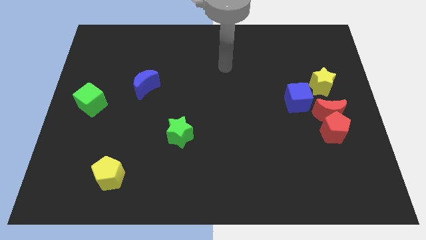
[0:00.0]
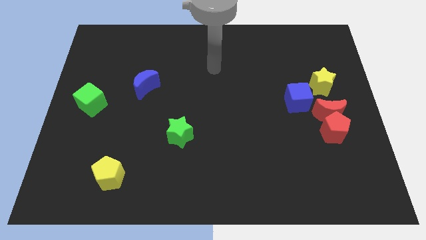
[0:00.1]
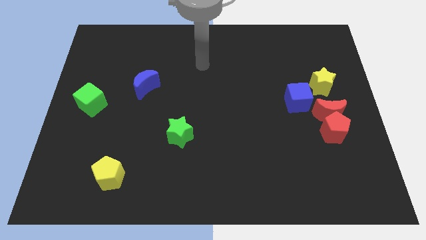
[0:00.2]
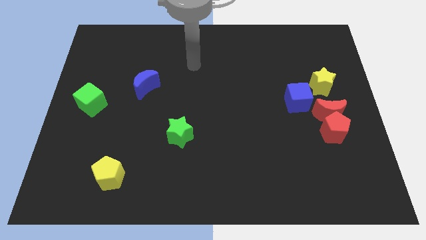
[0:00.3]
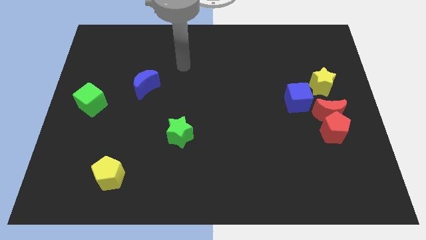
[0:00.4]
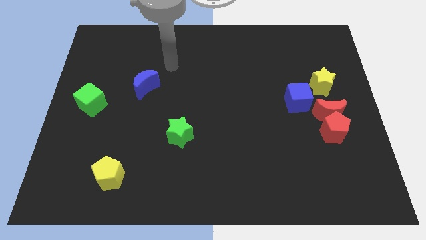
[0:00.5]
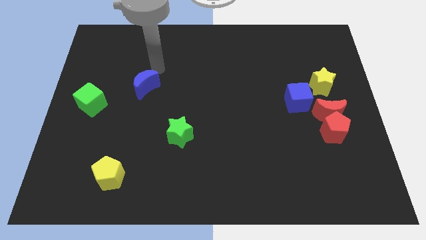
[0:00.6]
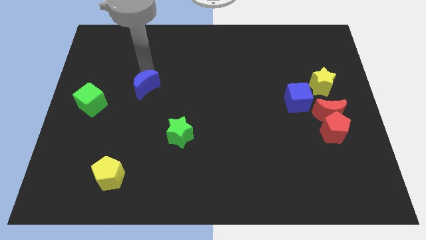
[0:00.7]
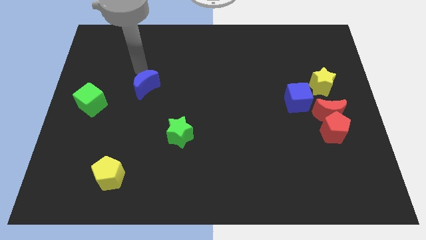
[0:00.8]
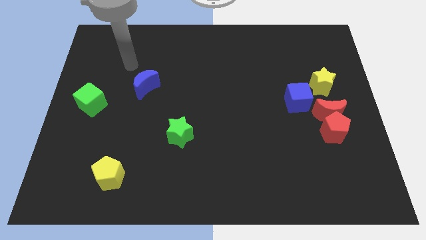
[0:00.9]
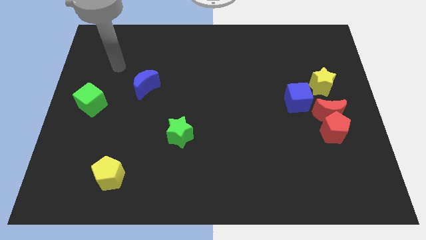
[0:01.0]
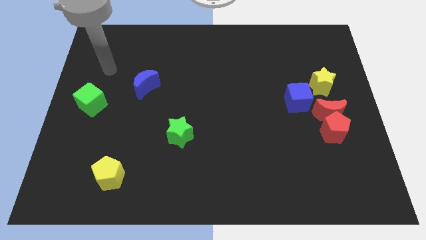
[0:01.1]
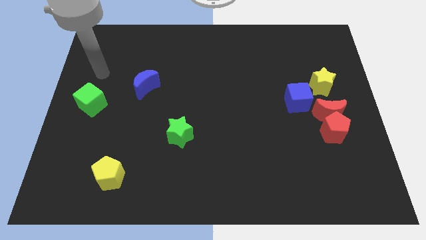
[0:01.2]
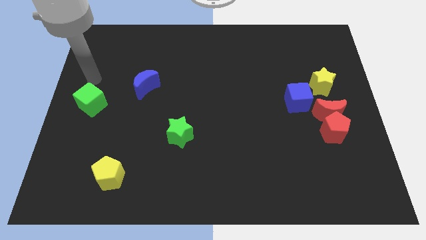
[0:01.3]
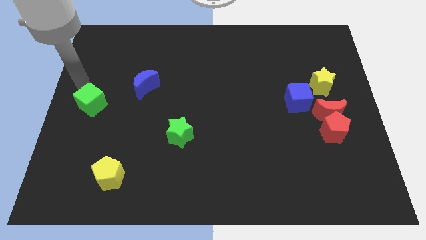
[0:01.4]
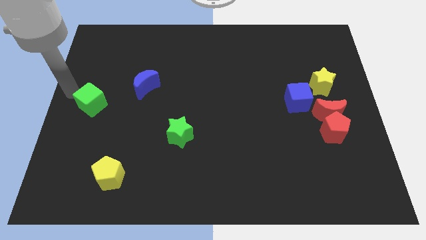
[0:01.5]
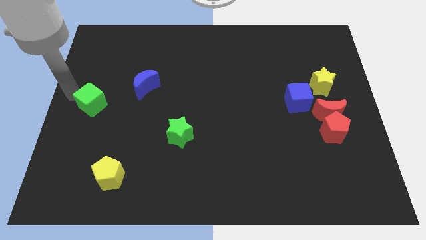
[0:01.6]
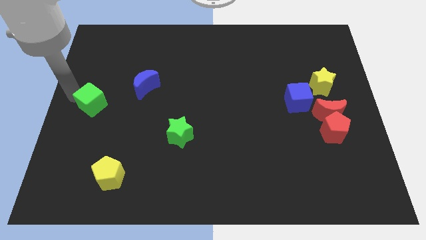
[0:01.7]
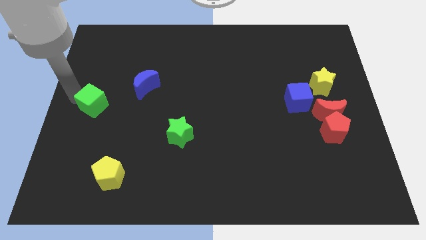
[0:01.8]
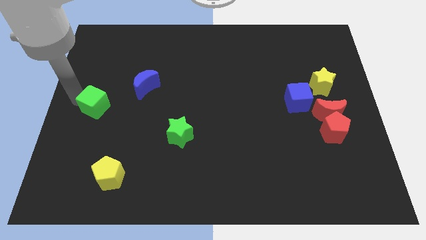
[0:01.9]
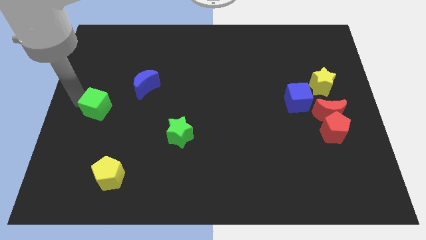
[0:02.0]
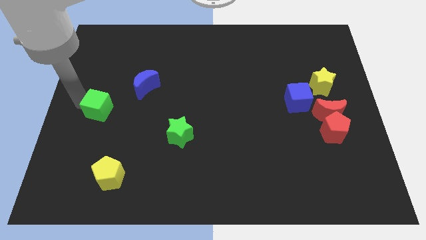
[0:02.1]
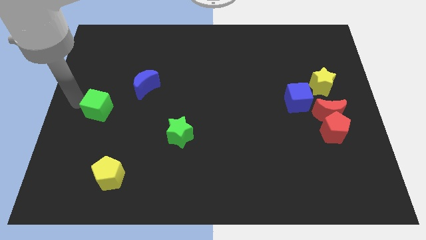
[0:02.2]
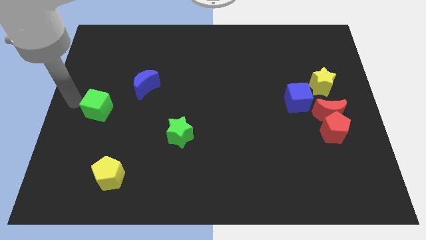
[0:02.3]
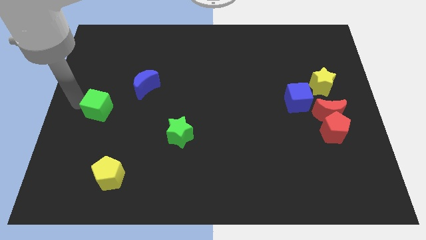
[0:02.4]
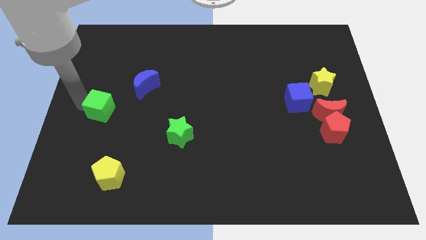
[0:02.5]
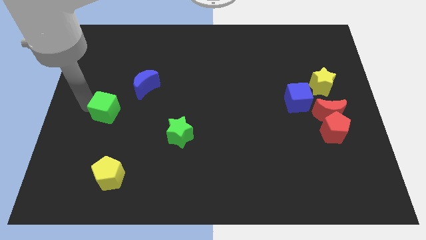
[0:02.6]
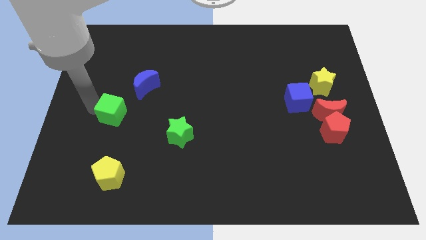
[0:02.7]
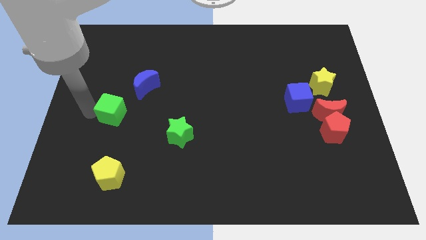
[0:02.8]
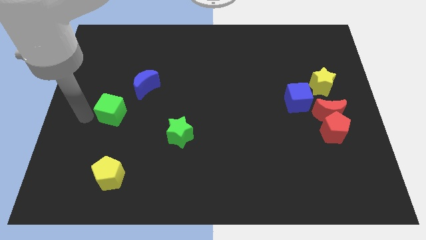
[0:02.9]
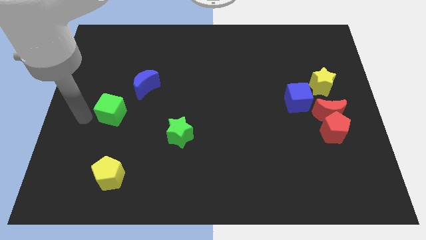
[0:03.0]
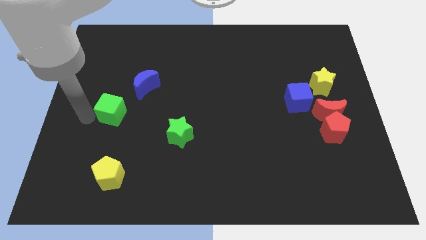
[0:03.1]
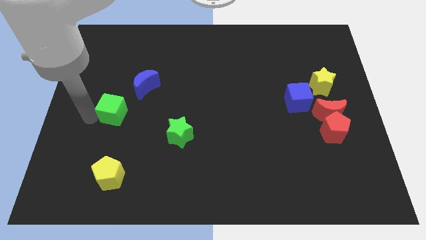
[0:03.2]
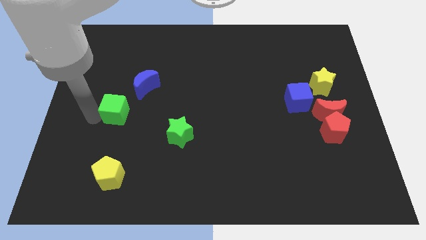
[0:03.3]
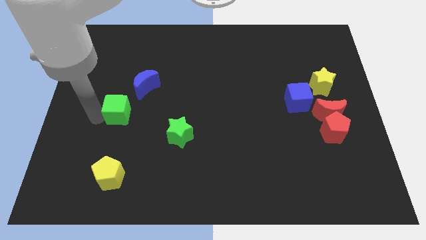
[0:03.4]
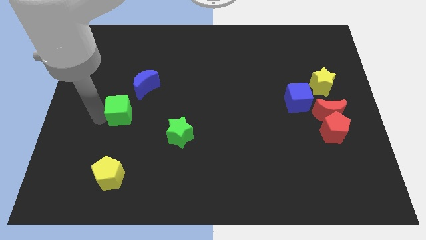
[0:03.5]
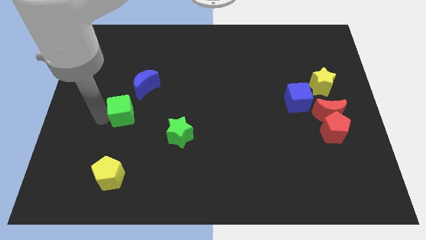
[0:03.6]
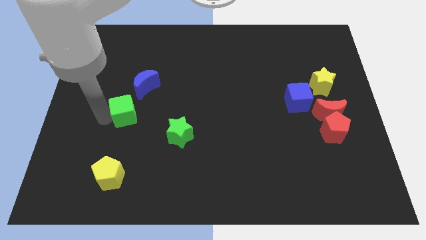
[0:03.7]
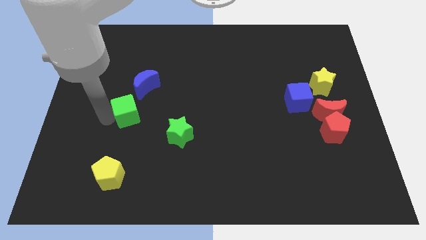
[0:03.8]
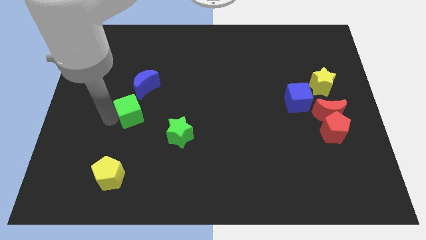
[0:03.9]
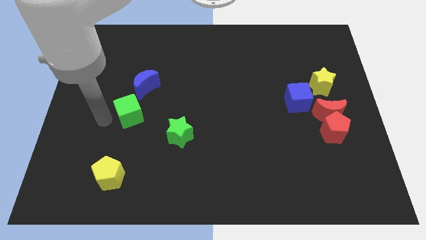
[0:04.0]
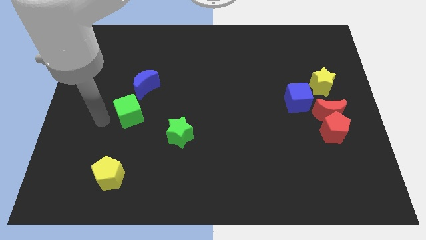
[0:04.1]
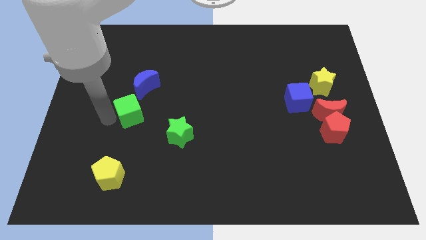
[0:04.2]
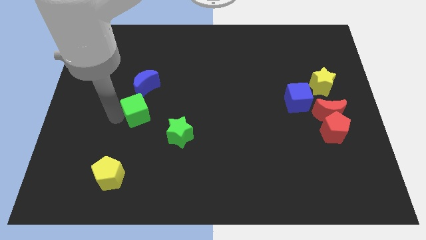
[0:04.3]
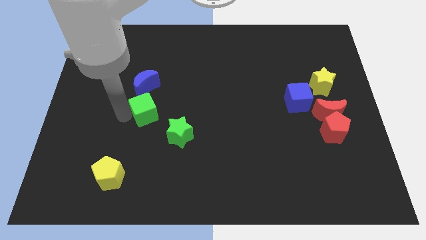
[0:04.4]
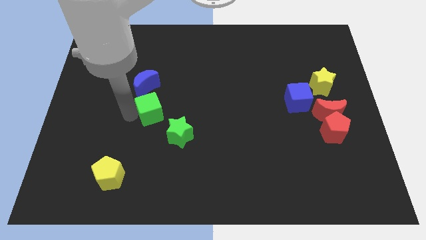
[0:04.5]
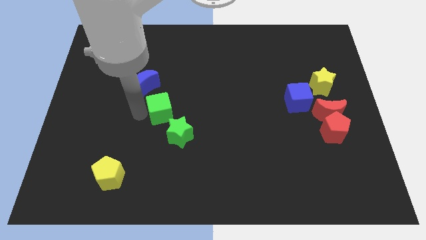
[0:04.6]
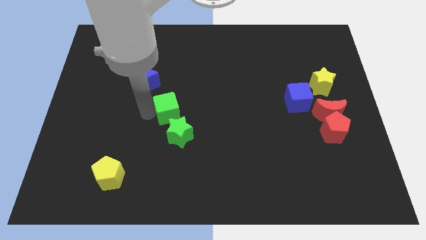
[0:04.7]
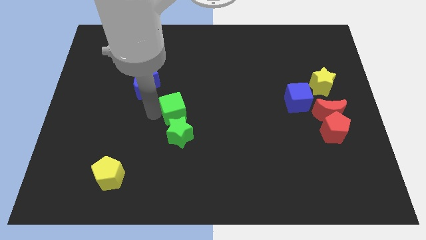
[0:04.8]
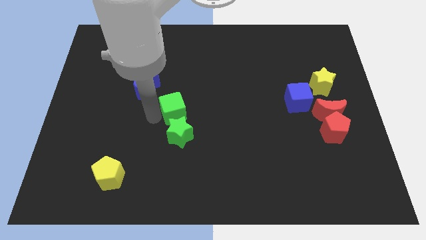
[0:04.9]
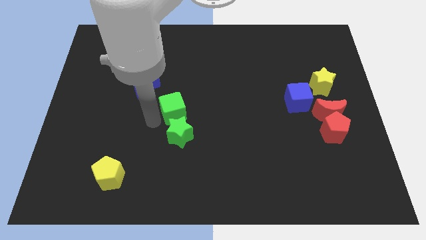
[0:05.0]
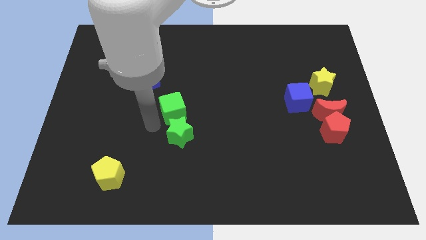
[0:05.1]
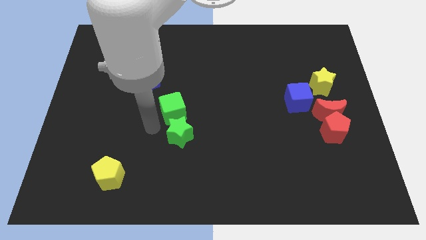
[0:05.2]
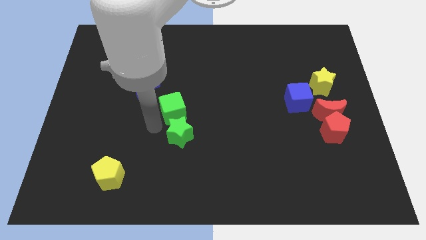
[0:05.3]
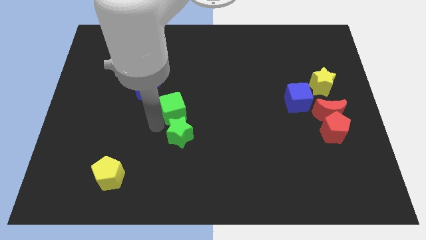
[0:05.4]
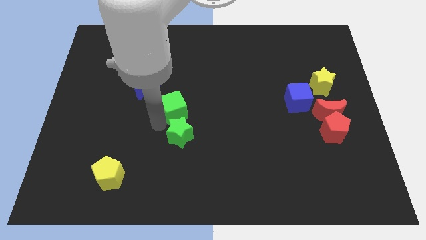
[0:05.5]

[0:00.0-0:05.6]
push the green cube to the right

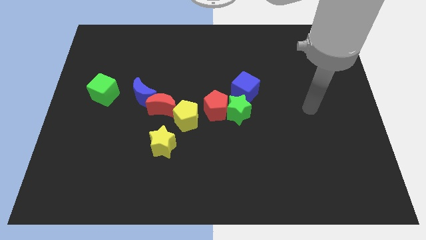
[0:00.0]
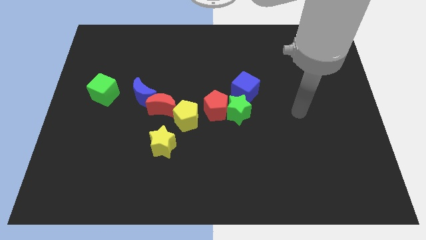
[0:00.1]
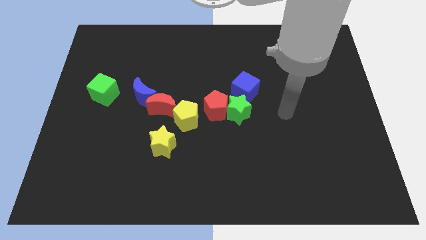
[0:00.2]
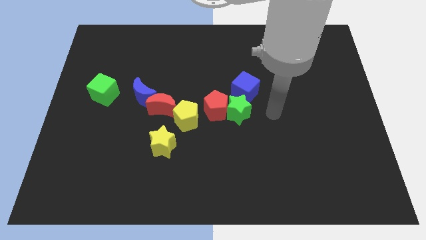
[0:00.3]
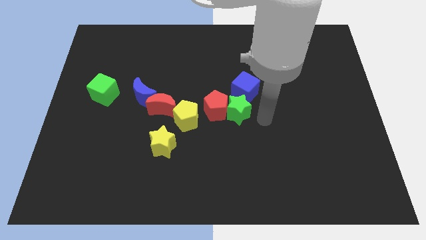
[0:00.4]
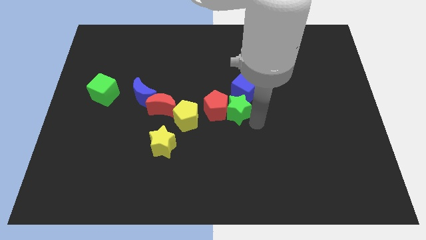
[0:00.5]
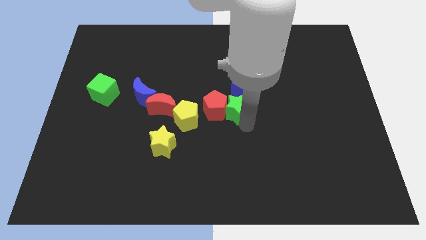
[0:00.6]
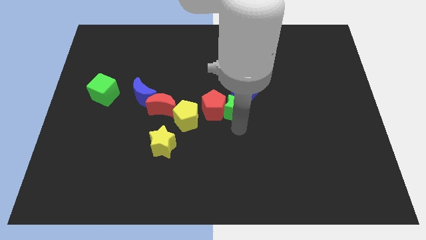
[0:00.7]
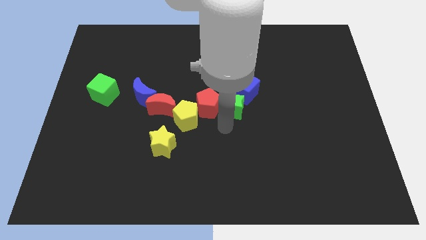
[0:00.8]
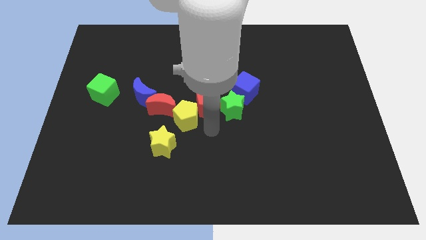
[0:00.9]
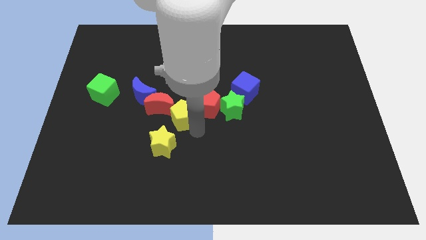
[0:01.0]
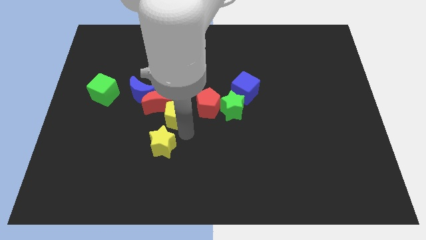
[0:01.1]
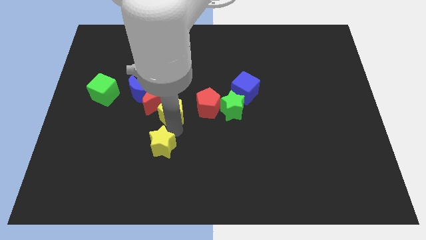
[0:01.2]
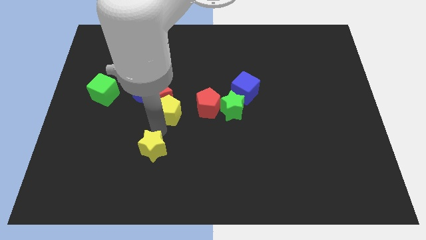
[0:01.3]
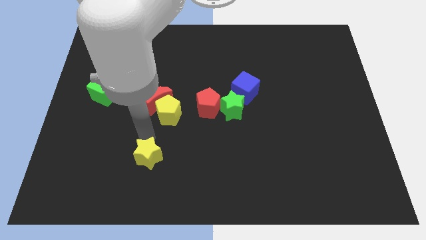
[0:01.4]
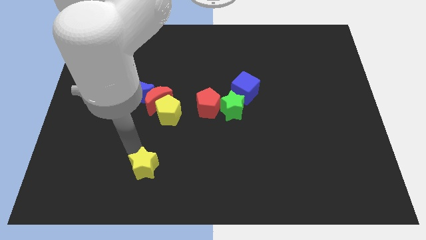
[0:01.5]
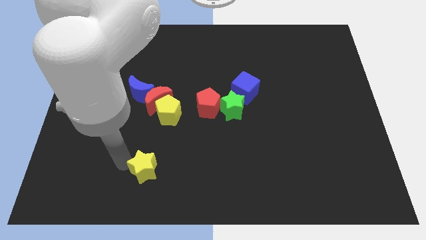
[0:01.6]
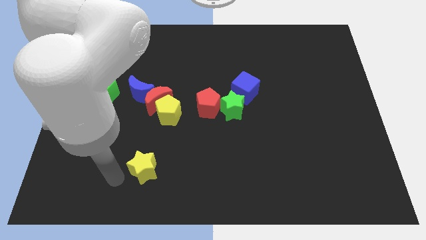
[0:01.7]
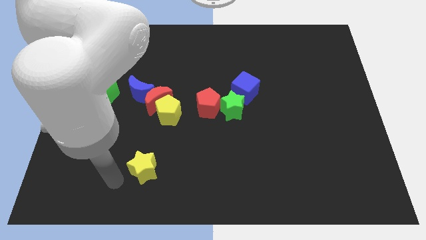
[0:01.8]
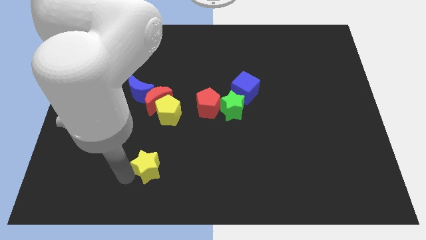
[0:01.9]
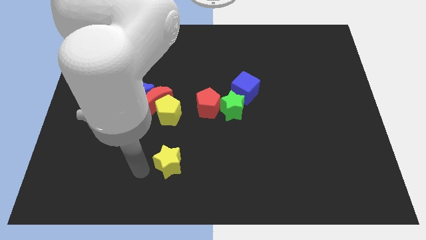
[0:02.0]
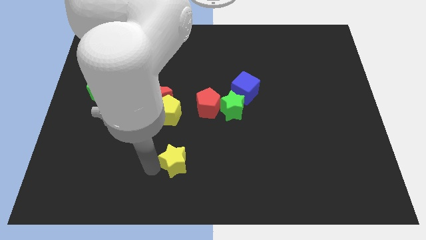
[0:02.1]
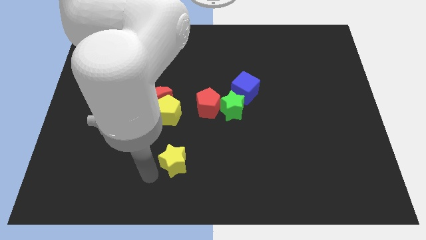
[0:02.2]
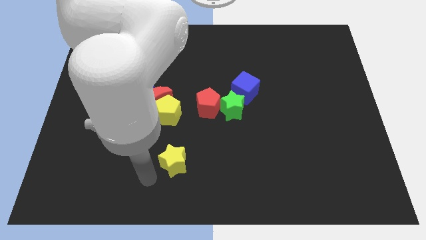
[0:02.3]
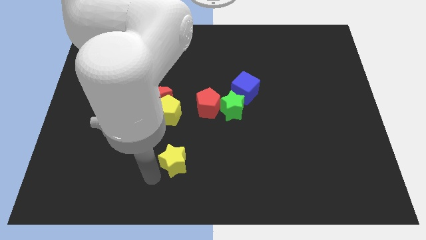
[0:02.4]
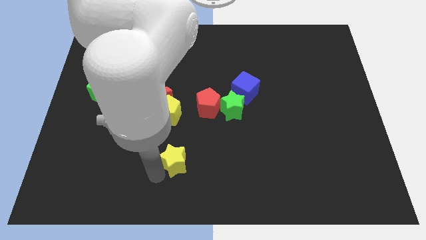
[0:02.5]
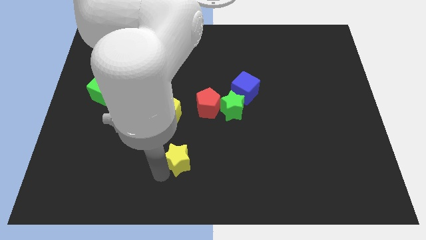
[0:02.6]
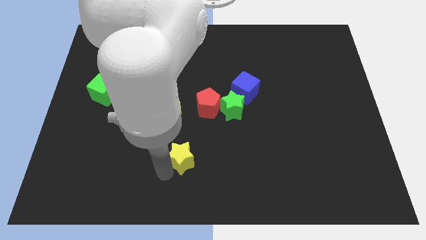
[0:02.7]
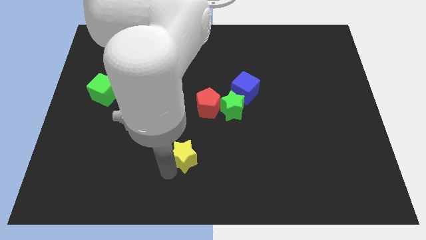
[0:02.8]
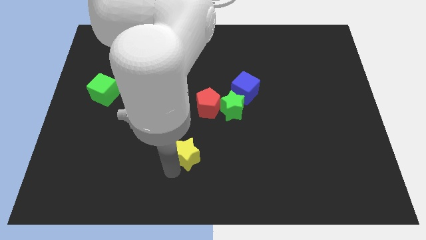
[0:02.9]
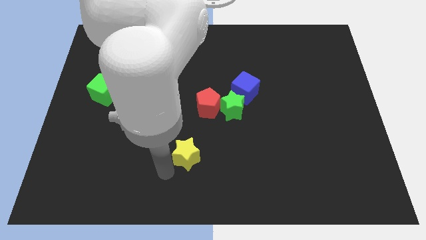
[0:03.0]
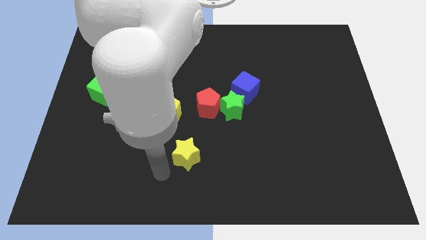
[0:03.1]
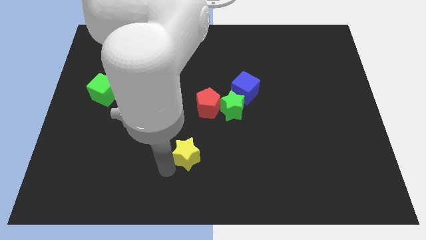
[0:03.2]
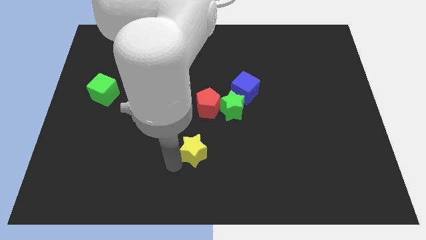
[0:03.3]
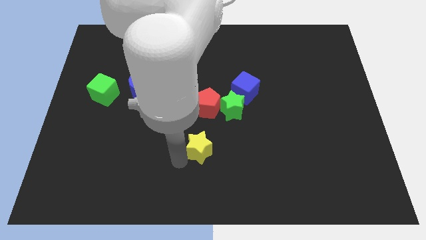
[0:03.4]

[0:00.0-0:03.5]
push the yellow star a little bit to the right
